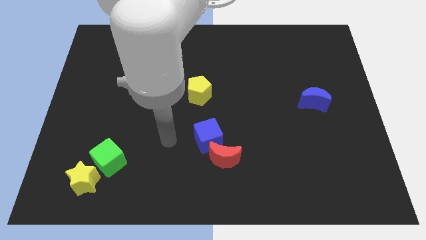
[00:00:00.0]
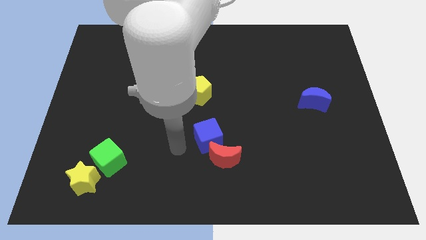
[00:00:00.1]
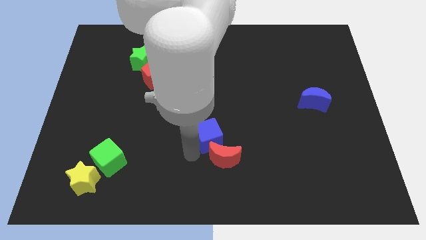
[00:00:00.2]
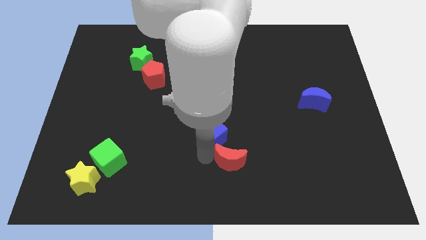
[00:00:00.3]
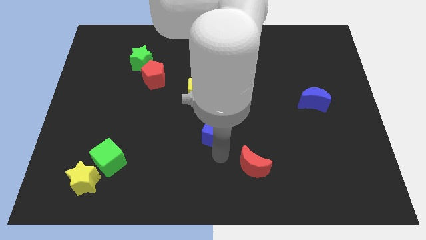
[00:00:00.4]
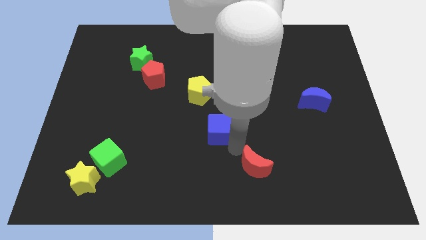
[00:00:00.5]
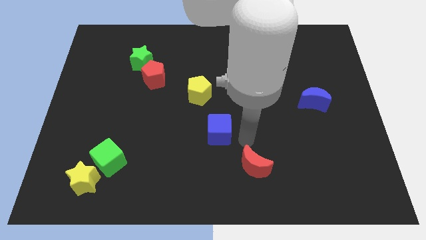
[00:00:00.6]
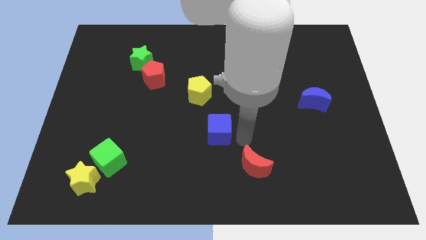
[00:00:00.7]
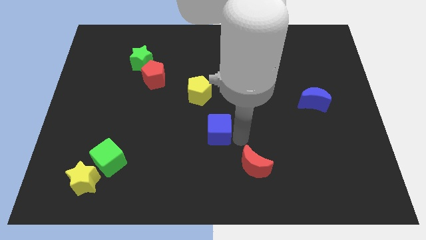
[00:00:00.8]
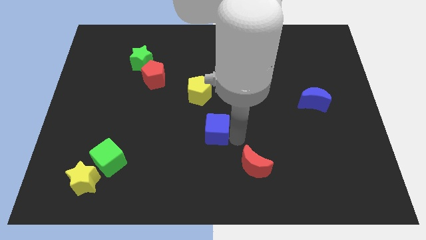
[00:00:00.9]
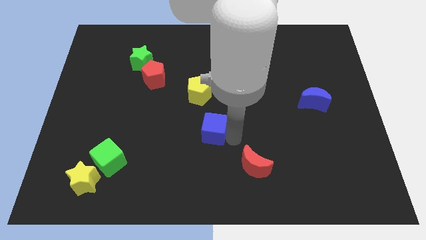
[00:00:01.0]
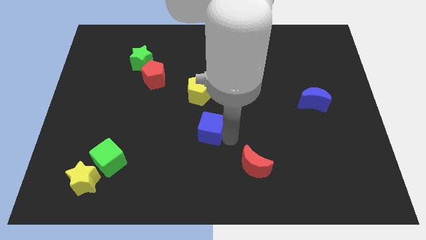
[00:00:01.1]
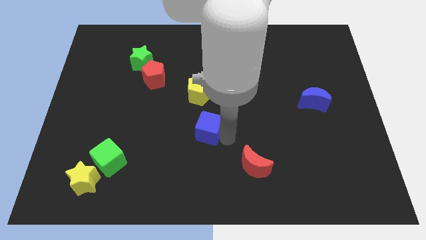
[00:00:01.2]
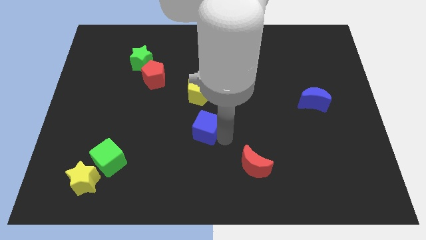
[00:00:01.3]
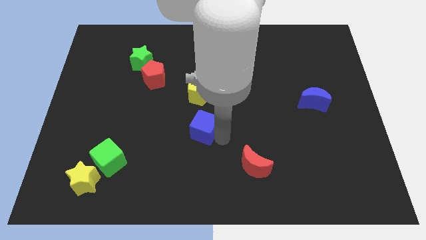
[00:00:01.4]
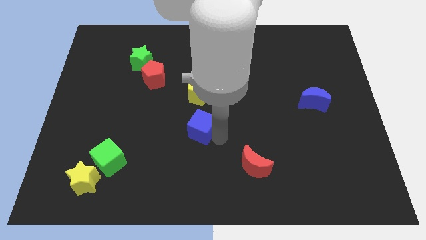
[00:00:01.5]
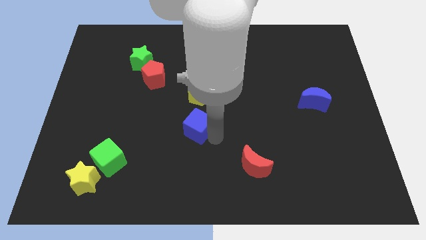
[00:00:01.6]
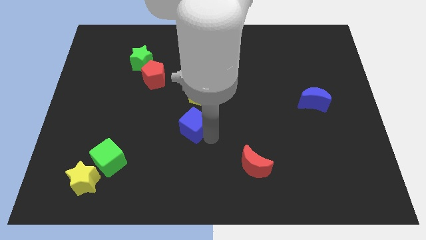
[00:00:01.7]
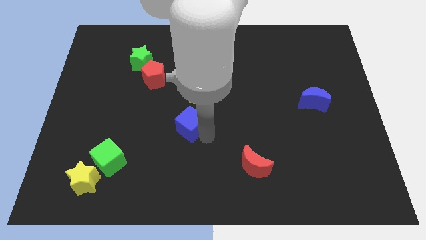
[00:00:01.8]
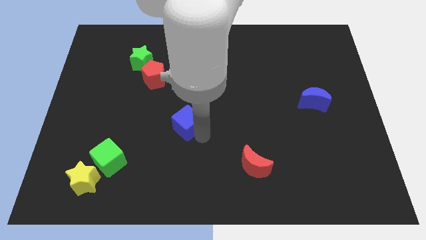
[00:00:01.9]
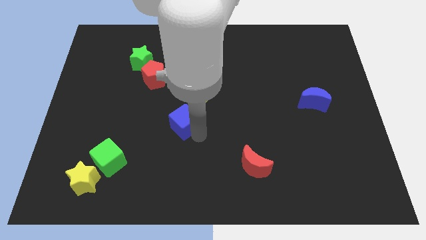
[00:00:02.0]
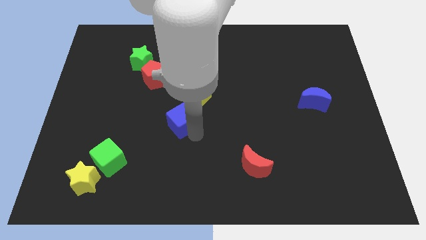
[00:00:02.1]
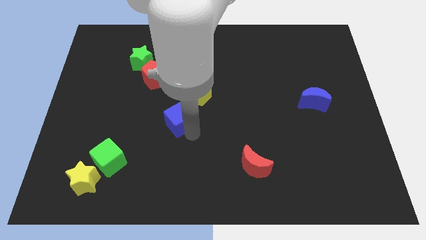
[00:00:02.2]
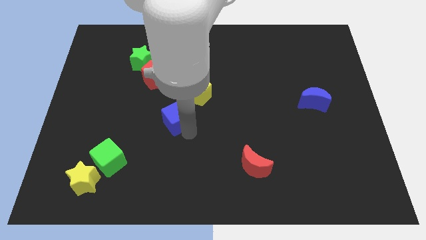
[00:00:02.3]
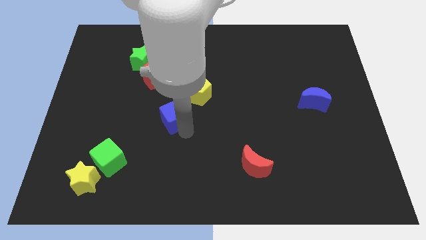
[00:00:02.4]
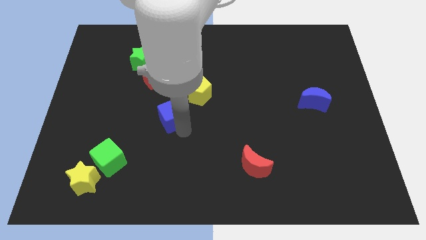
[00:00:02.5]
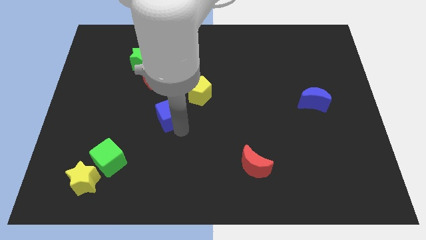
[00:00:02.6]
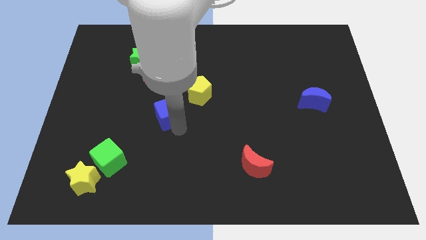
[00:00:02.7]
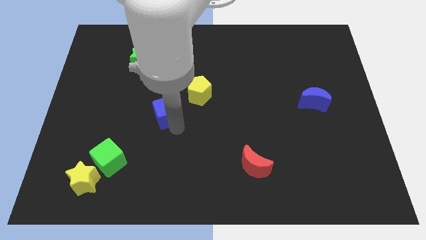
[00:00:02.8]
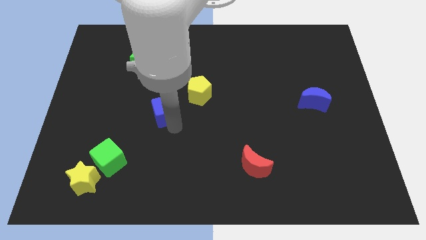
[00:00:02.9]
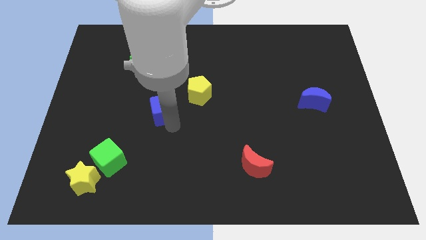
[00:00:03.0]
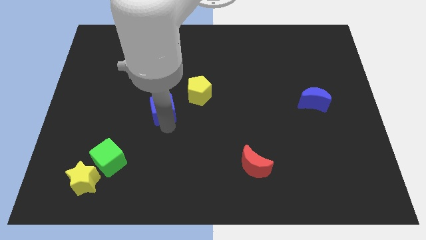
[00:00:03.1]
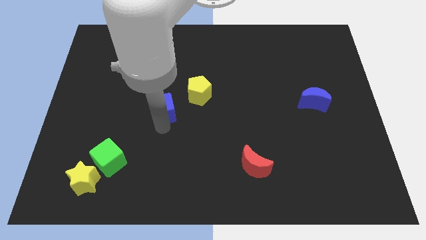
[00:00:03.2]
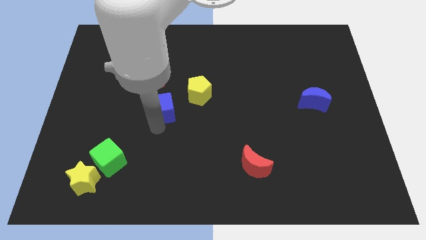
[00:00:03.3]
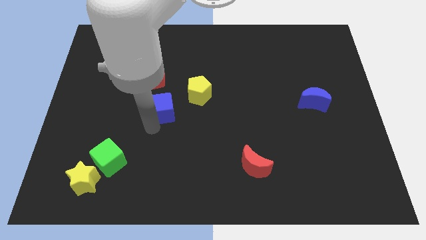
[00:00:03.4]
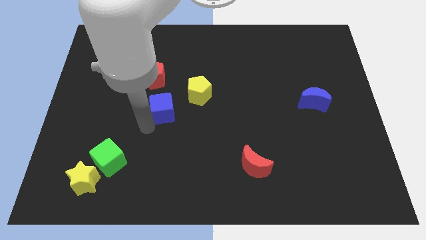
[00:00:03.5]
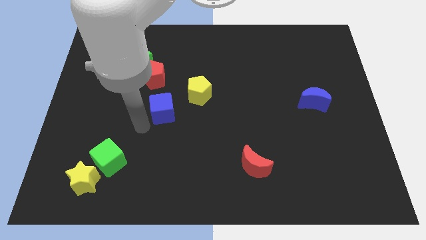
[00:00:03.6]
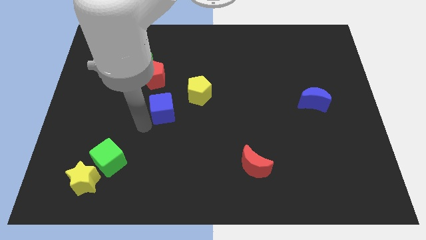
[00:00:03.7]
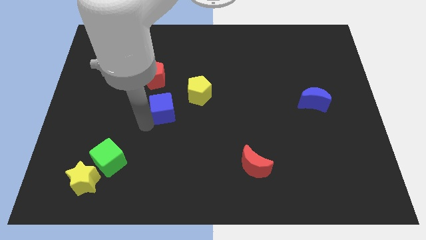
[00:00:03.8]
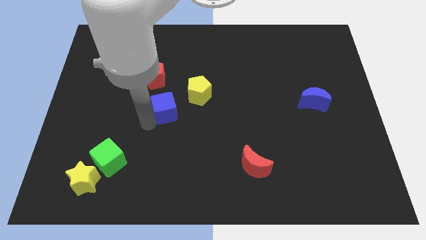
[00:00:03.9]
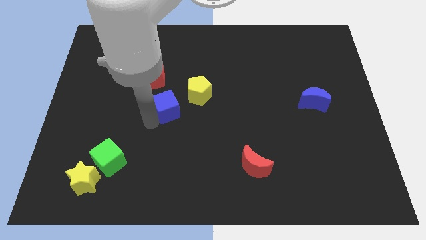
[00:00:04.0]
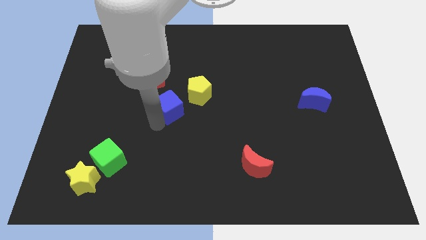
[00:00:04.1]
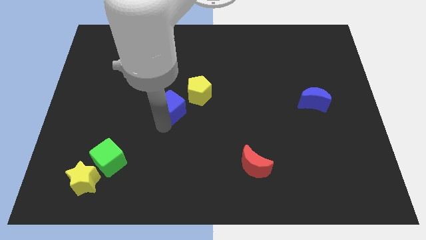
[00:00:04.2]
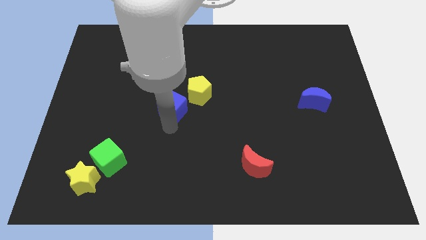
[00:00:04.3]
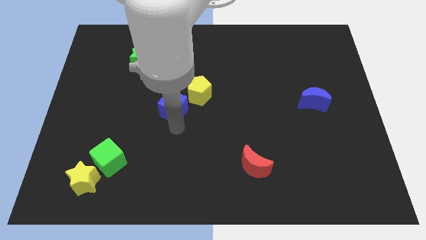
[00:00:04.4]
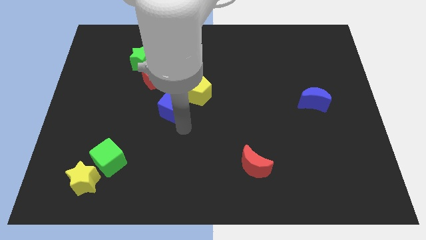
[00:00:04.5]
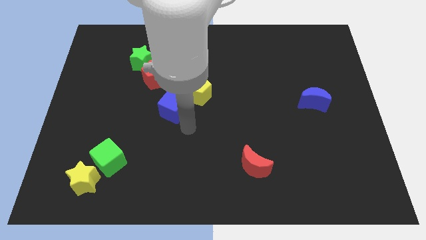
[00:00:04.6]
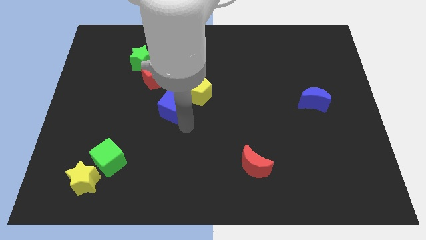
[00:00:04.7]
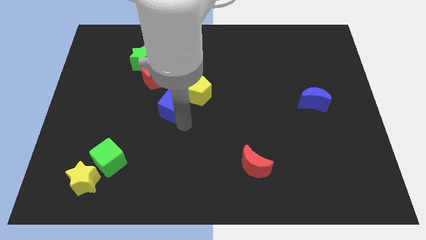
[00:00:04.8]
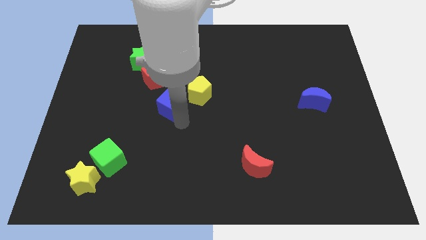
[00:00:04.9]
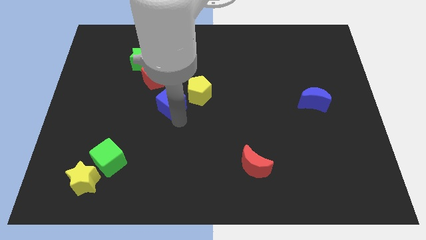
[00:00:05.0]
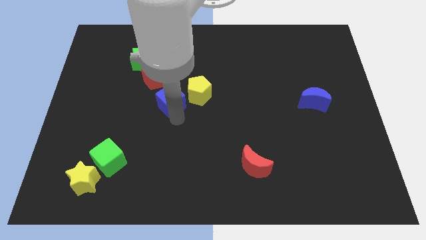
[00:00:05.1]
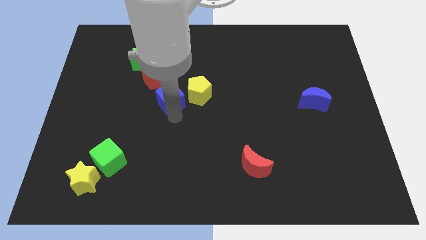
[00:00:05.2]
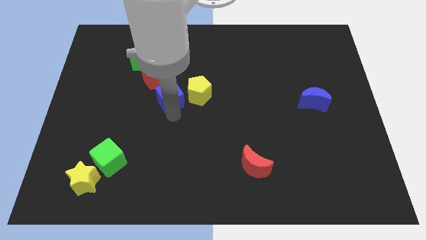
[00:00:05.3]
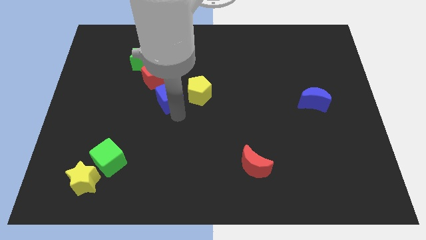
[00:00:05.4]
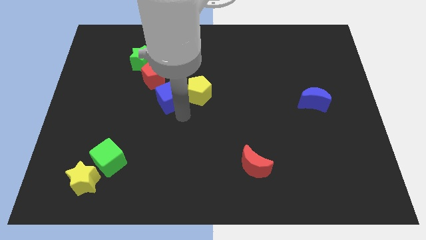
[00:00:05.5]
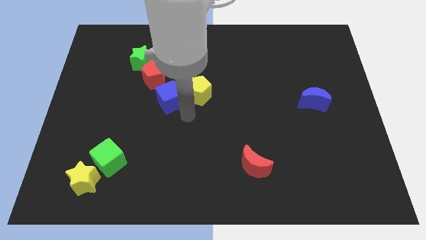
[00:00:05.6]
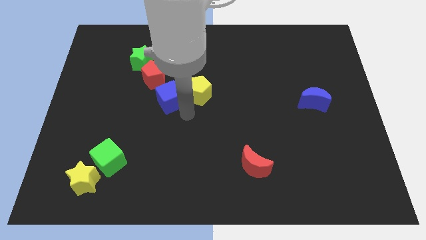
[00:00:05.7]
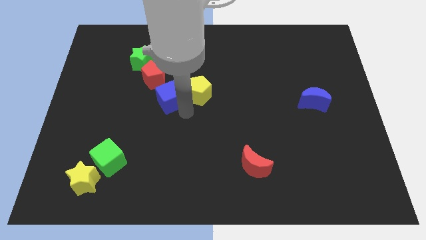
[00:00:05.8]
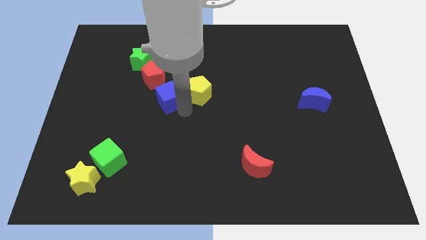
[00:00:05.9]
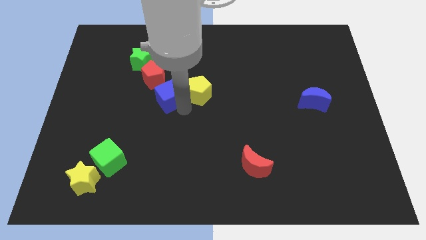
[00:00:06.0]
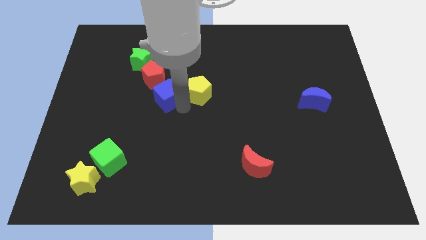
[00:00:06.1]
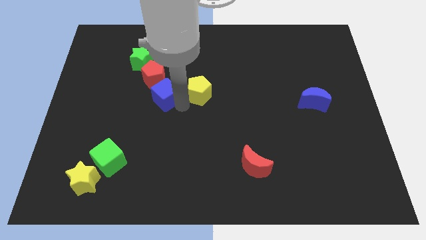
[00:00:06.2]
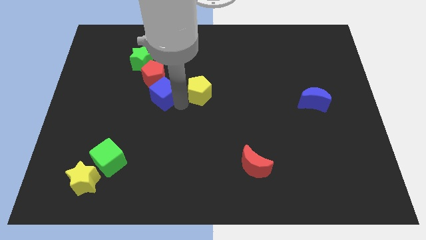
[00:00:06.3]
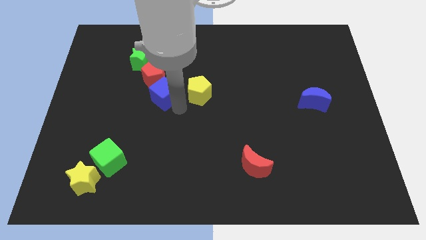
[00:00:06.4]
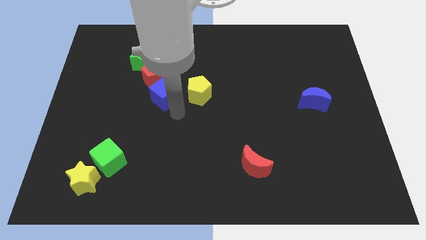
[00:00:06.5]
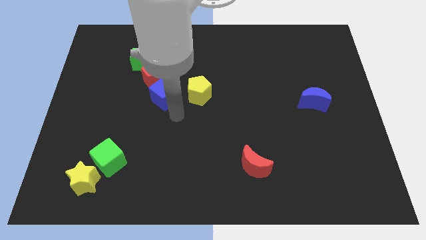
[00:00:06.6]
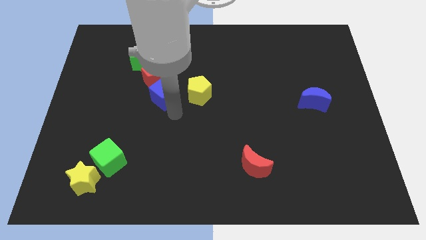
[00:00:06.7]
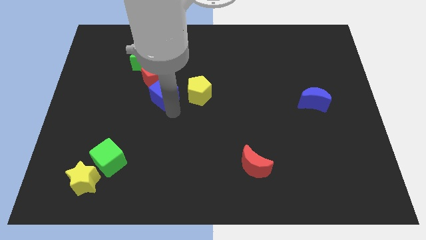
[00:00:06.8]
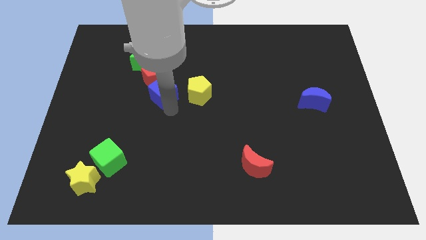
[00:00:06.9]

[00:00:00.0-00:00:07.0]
move the blue cube close to the red pentagon
